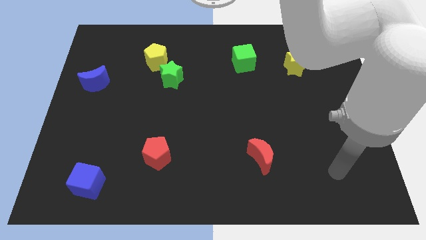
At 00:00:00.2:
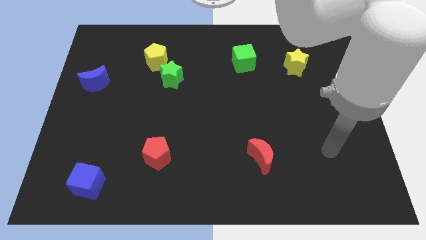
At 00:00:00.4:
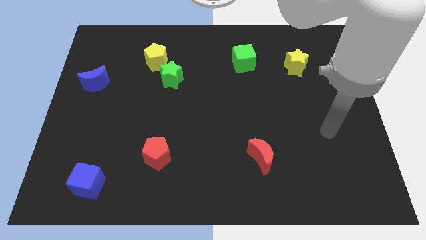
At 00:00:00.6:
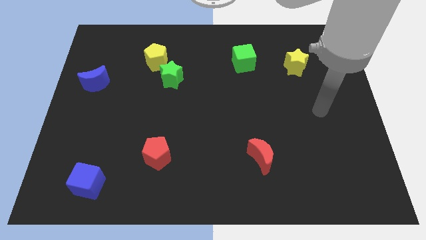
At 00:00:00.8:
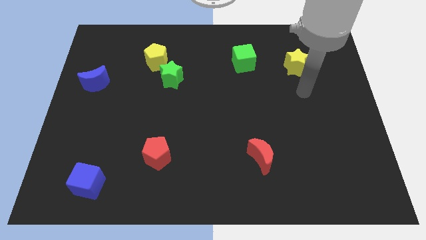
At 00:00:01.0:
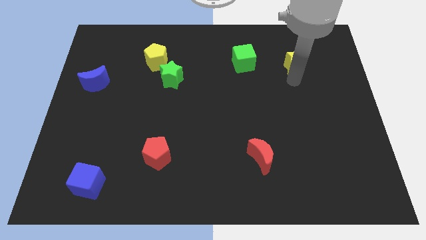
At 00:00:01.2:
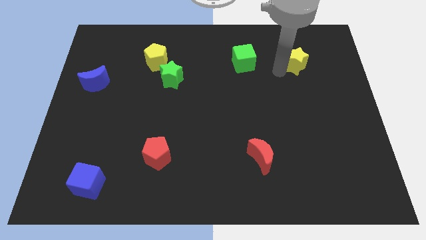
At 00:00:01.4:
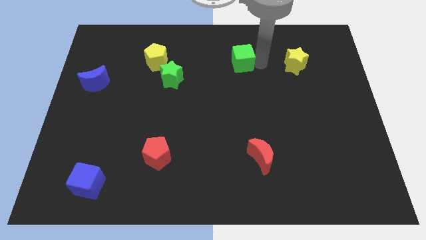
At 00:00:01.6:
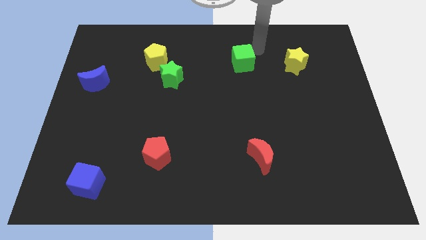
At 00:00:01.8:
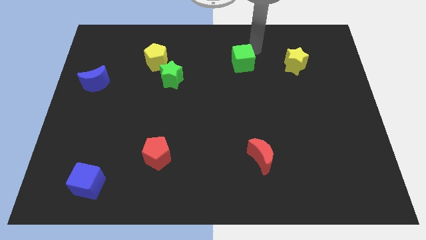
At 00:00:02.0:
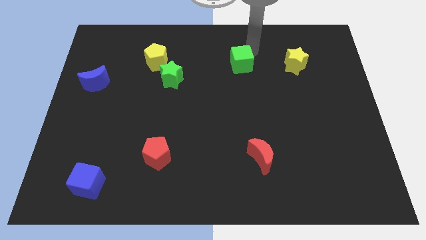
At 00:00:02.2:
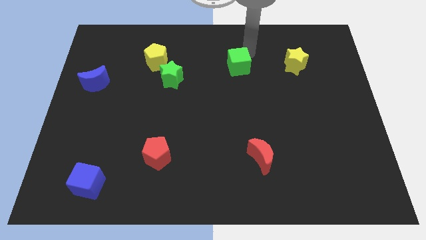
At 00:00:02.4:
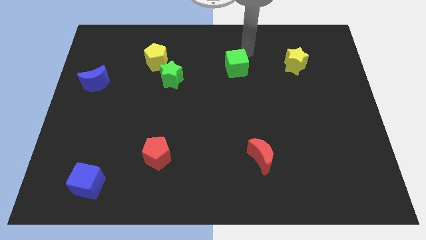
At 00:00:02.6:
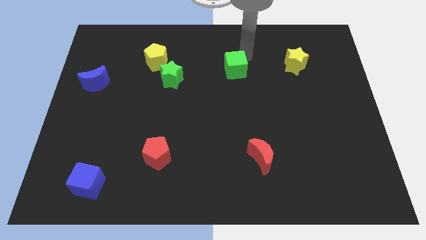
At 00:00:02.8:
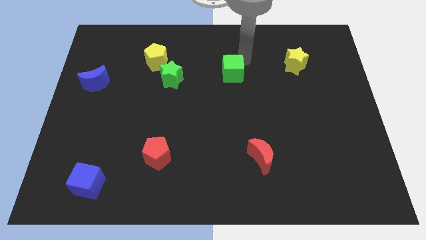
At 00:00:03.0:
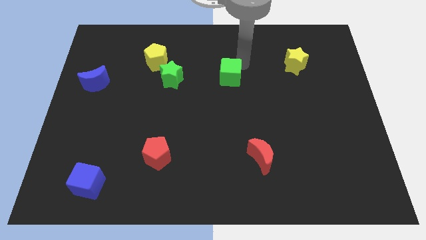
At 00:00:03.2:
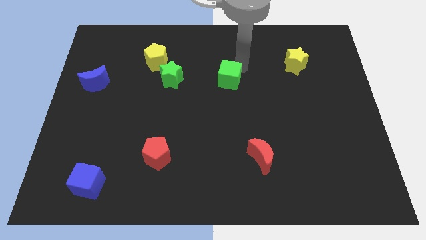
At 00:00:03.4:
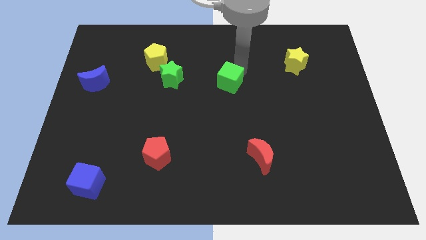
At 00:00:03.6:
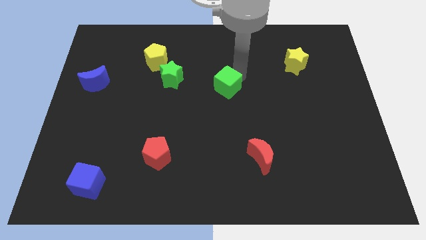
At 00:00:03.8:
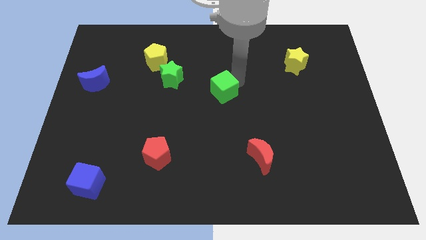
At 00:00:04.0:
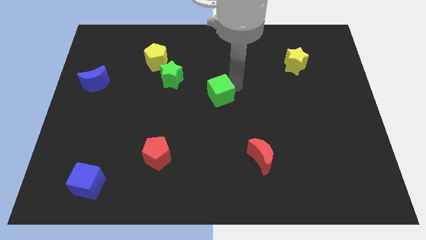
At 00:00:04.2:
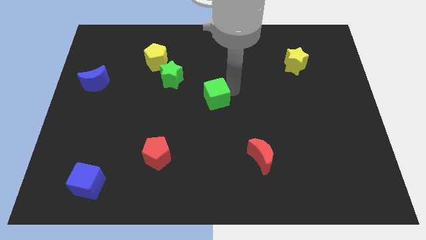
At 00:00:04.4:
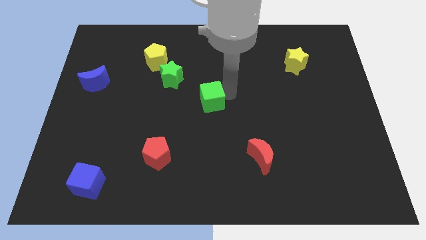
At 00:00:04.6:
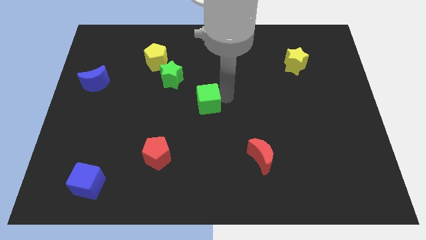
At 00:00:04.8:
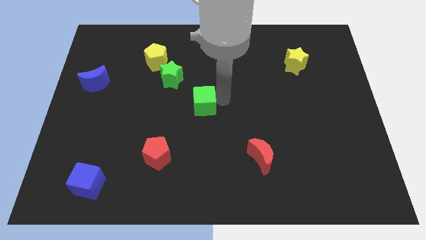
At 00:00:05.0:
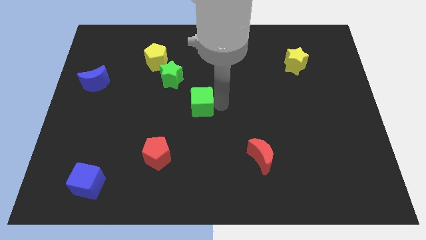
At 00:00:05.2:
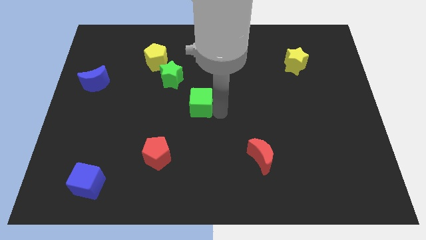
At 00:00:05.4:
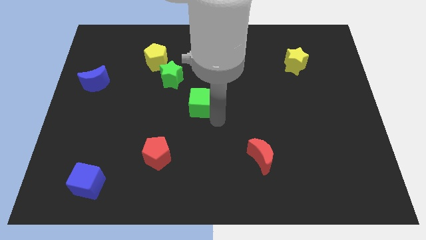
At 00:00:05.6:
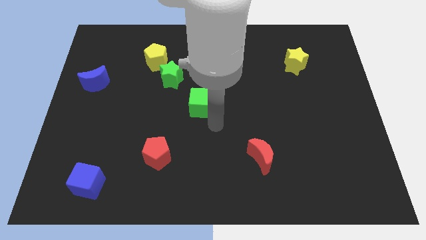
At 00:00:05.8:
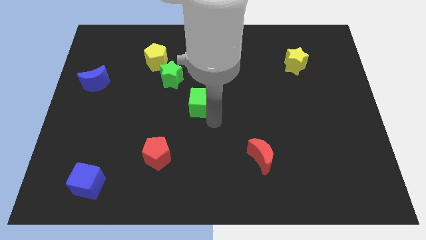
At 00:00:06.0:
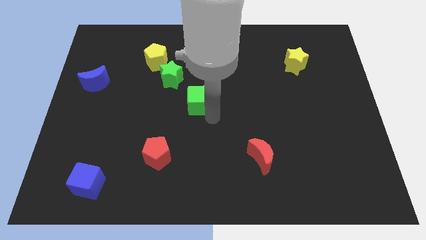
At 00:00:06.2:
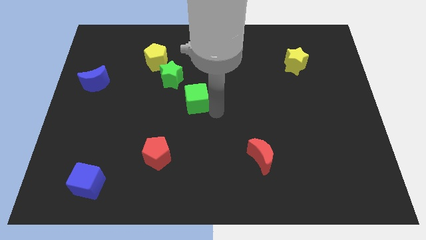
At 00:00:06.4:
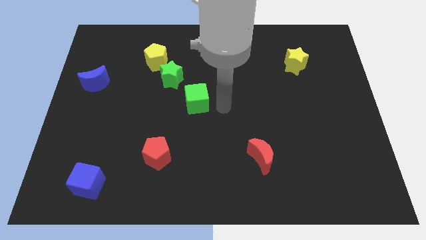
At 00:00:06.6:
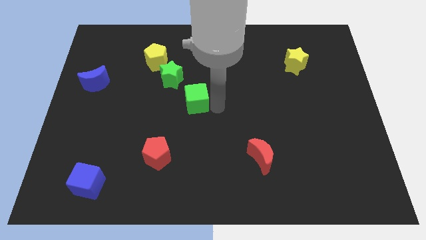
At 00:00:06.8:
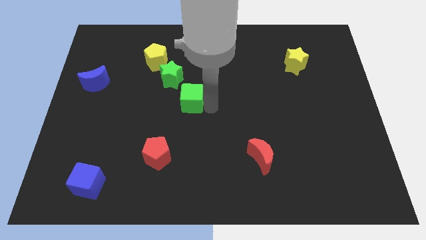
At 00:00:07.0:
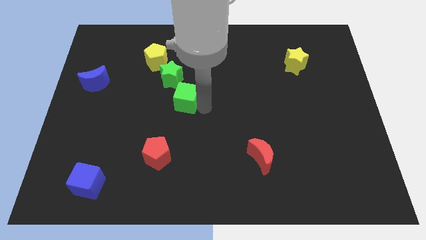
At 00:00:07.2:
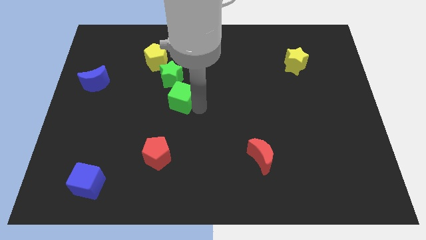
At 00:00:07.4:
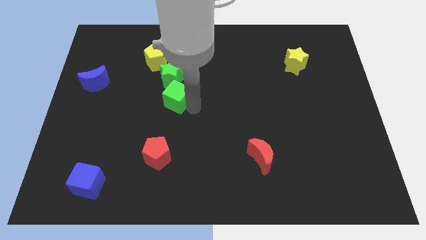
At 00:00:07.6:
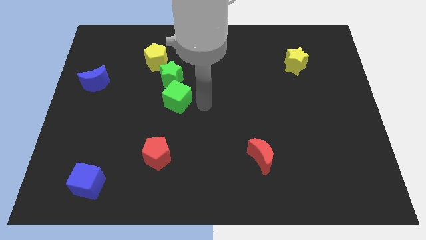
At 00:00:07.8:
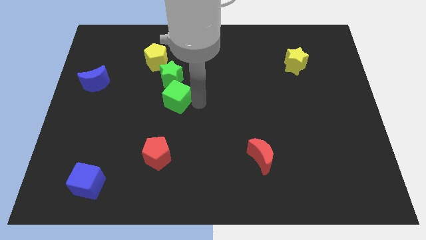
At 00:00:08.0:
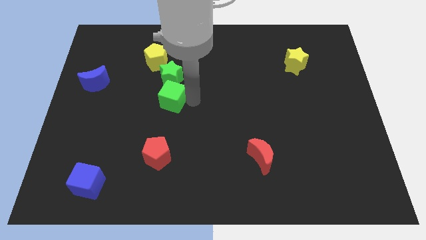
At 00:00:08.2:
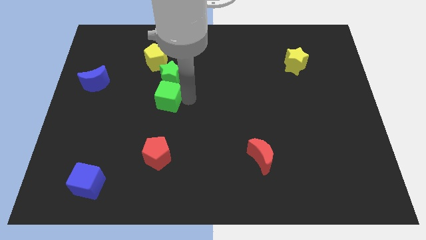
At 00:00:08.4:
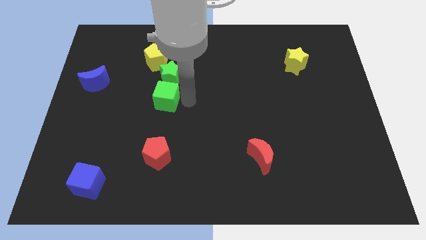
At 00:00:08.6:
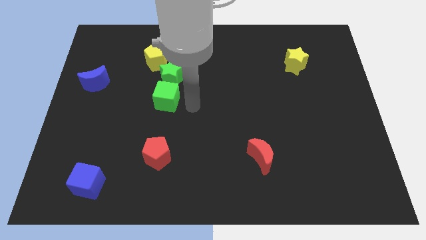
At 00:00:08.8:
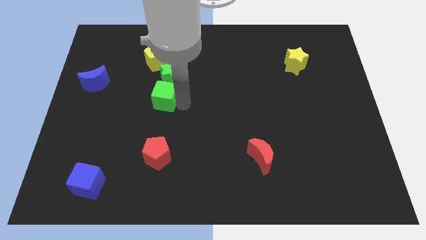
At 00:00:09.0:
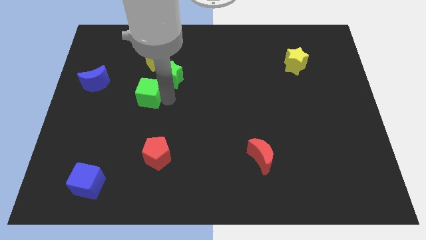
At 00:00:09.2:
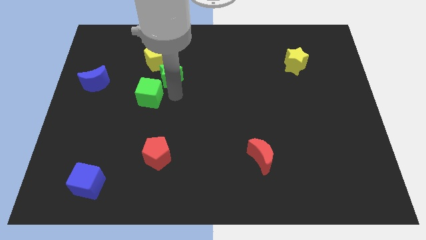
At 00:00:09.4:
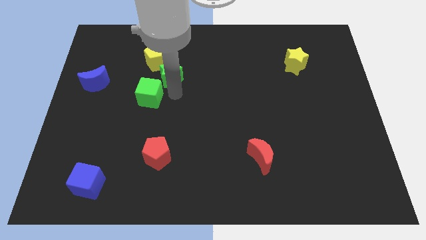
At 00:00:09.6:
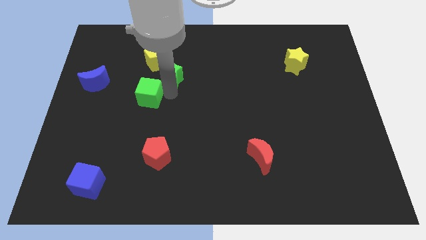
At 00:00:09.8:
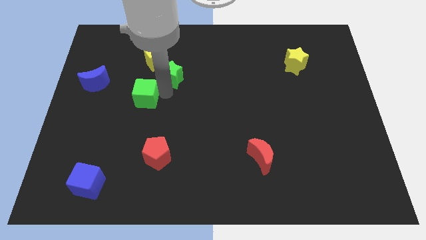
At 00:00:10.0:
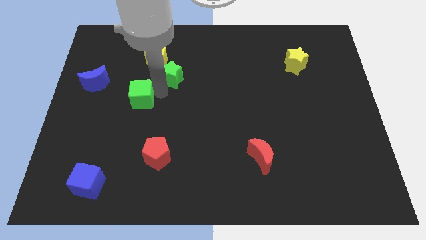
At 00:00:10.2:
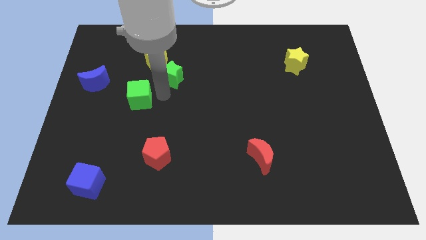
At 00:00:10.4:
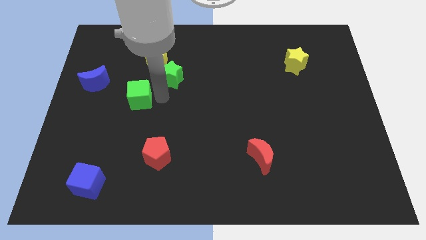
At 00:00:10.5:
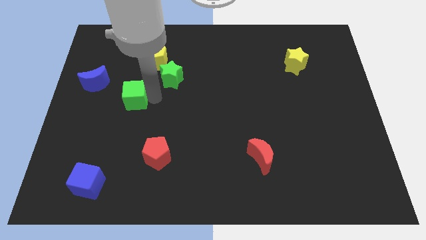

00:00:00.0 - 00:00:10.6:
push the green cube diagonally down and to the right of the blue moon

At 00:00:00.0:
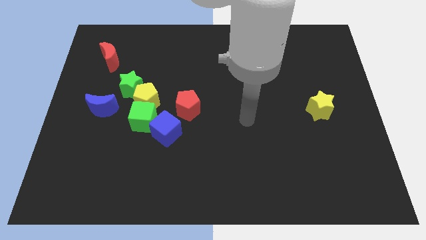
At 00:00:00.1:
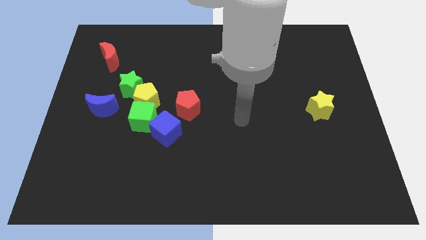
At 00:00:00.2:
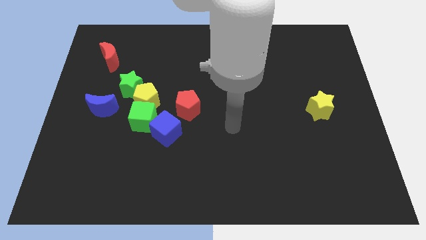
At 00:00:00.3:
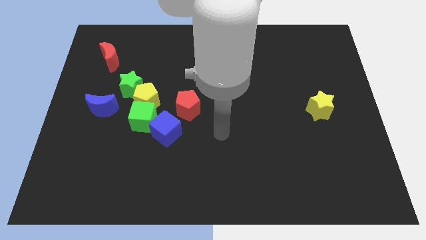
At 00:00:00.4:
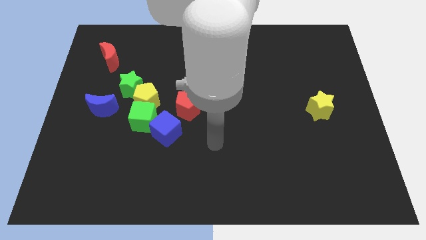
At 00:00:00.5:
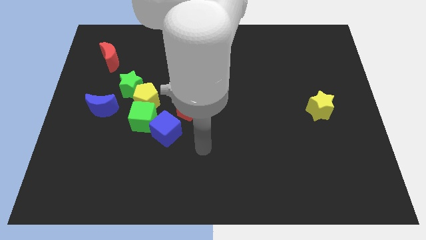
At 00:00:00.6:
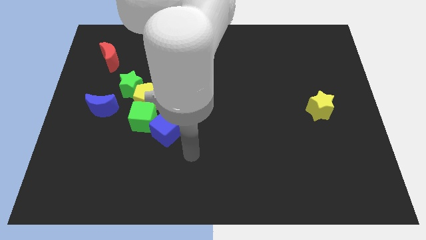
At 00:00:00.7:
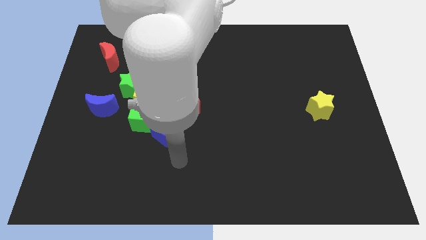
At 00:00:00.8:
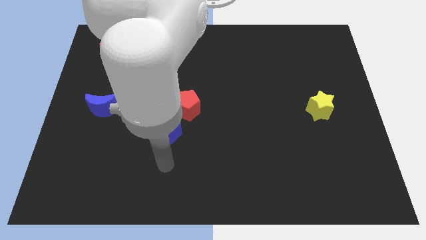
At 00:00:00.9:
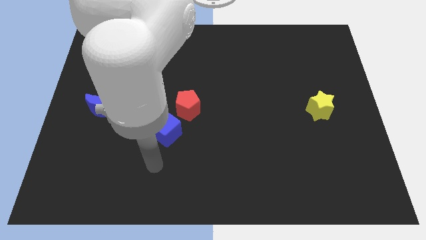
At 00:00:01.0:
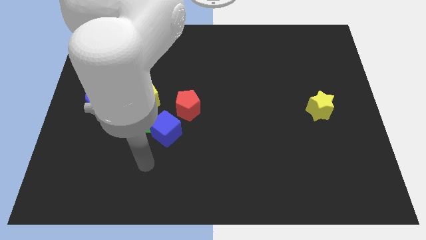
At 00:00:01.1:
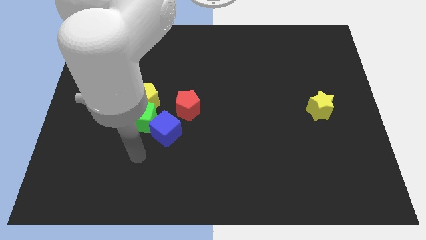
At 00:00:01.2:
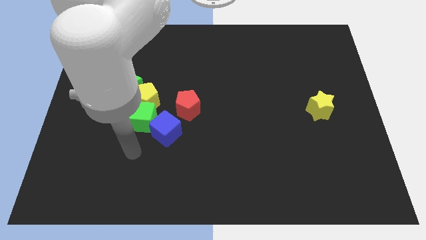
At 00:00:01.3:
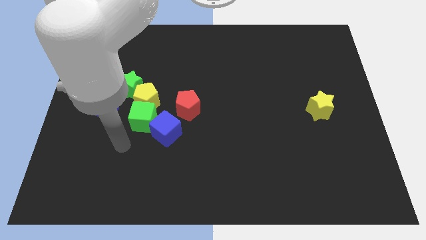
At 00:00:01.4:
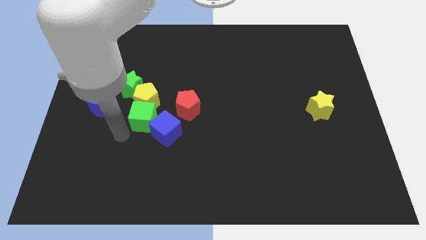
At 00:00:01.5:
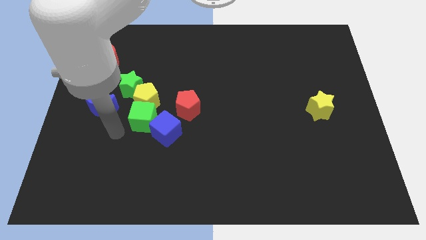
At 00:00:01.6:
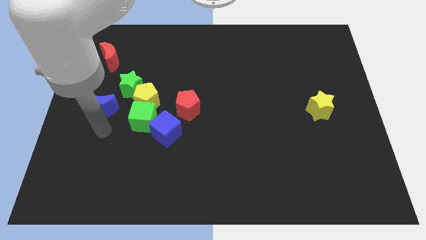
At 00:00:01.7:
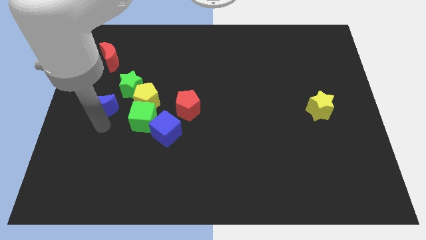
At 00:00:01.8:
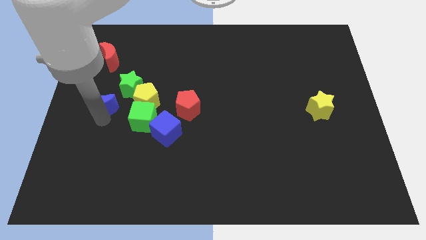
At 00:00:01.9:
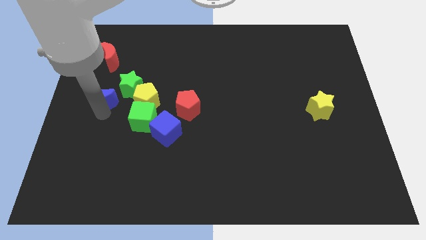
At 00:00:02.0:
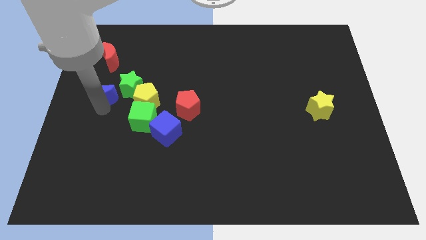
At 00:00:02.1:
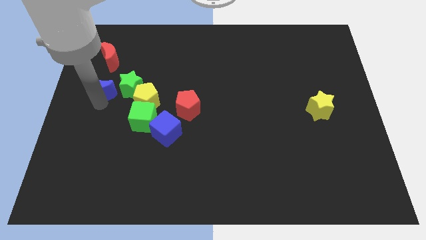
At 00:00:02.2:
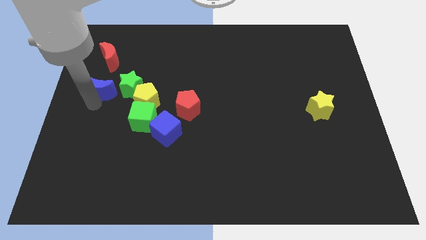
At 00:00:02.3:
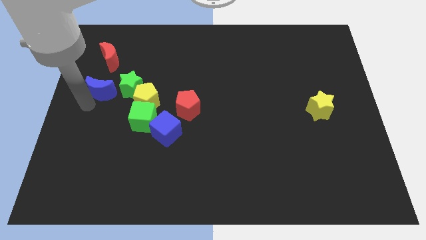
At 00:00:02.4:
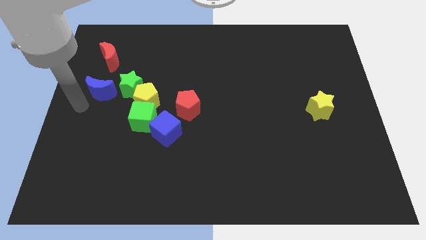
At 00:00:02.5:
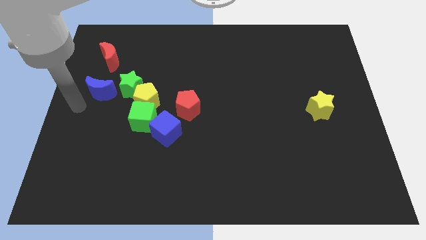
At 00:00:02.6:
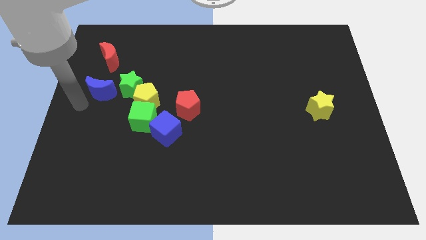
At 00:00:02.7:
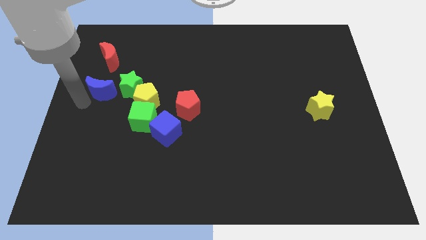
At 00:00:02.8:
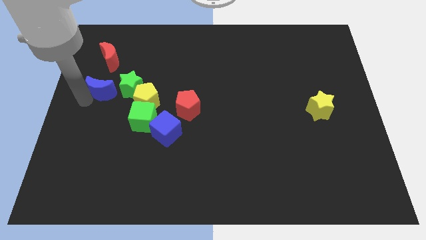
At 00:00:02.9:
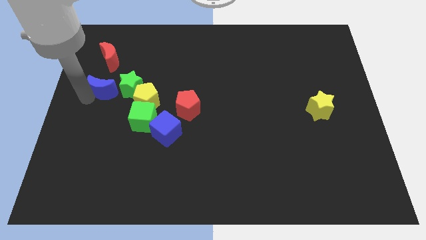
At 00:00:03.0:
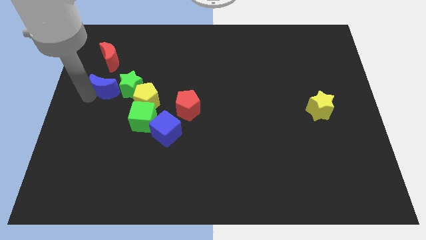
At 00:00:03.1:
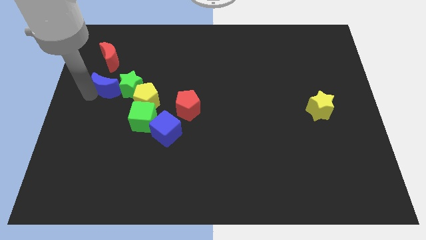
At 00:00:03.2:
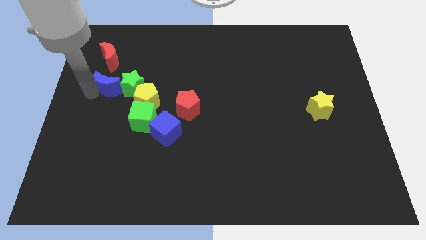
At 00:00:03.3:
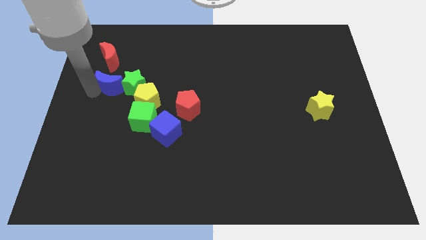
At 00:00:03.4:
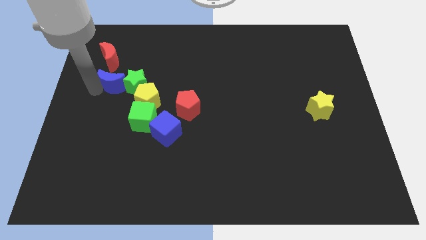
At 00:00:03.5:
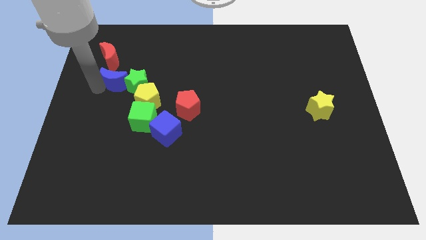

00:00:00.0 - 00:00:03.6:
push the blue moon to the bottom right side of the red moon
